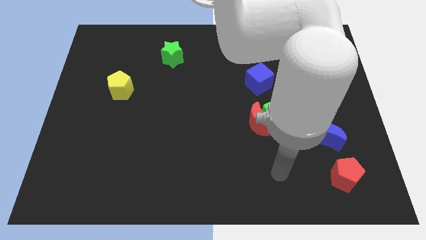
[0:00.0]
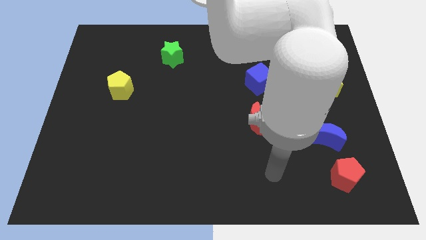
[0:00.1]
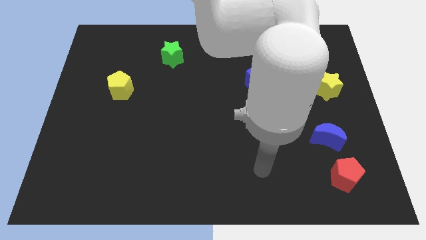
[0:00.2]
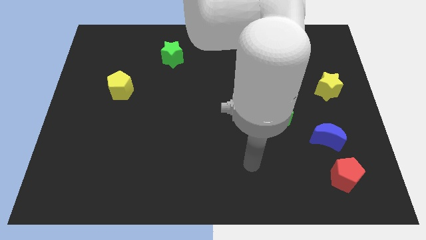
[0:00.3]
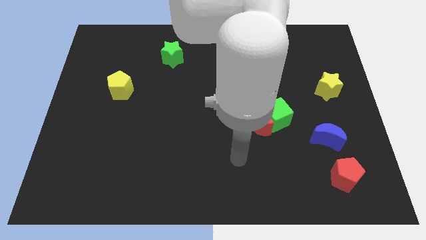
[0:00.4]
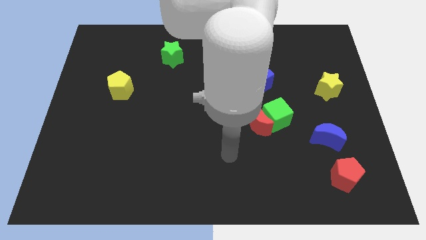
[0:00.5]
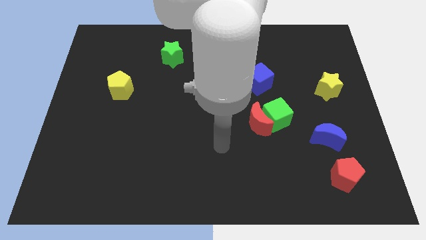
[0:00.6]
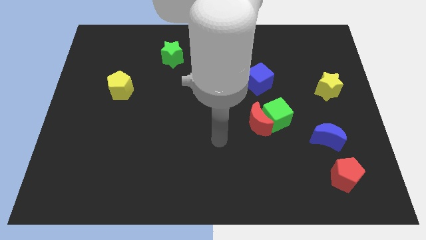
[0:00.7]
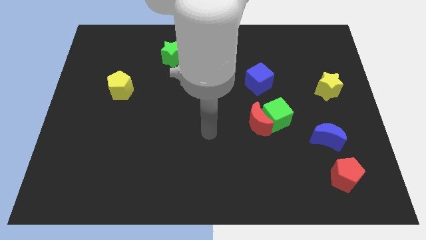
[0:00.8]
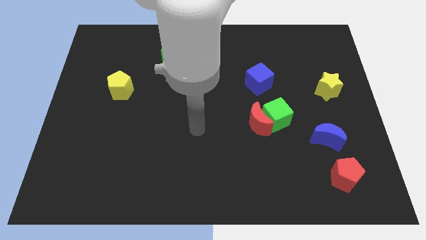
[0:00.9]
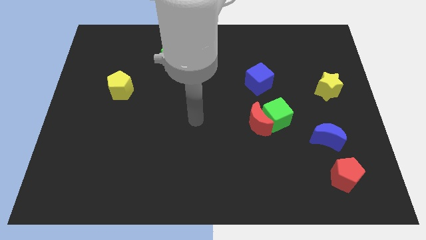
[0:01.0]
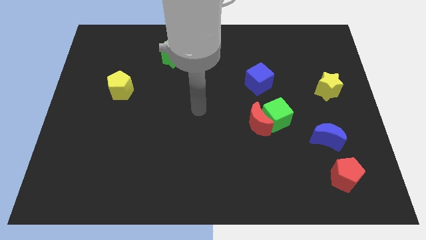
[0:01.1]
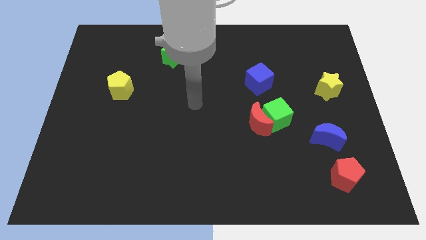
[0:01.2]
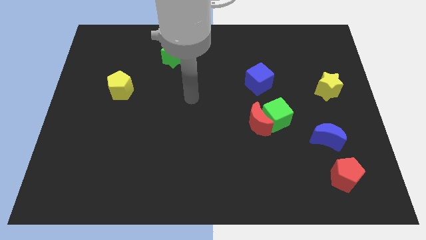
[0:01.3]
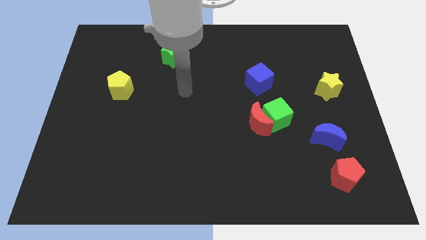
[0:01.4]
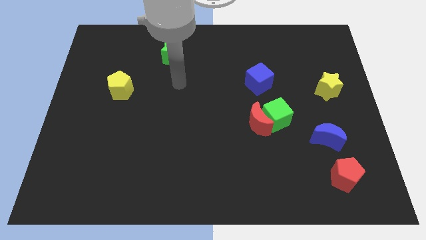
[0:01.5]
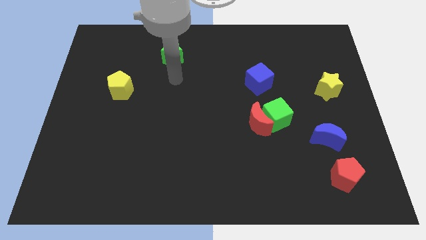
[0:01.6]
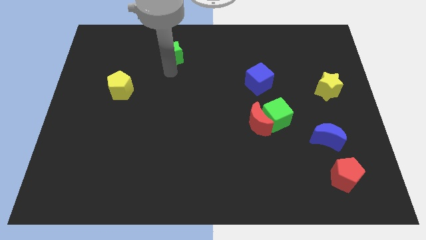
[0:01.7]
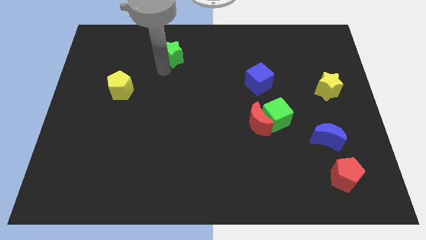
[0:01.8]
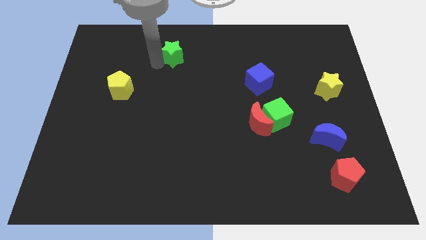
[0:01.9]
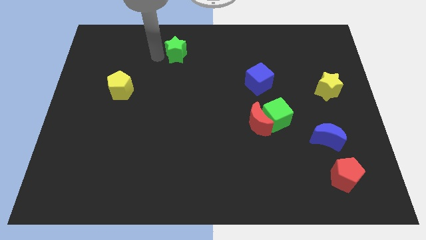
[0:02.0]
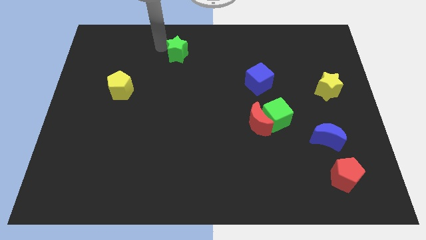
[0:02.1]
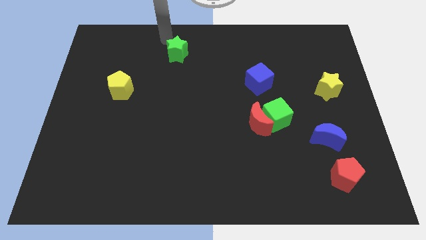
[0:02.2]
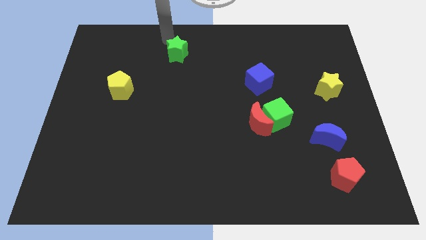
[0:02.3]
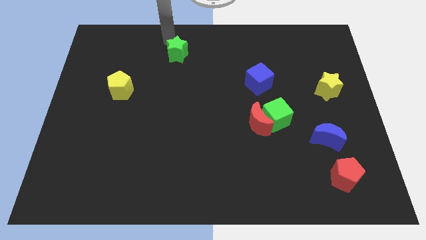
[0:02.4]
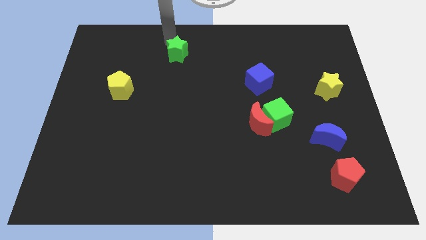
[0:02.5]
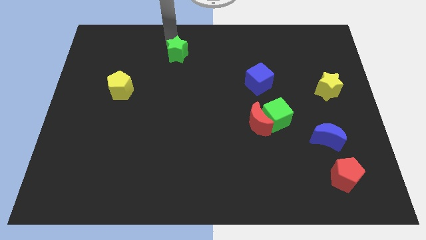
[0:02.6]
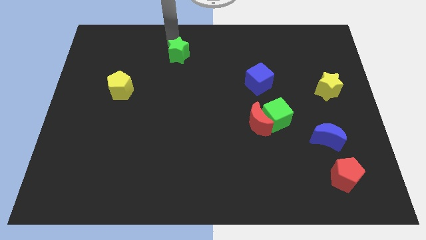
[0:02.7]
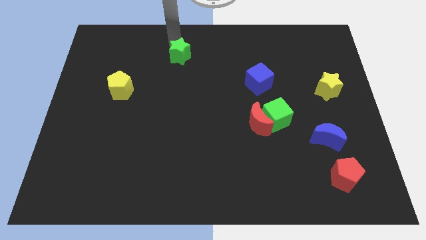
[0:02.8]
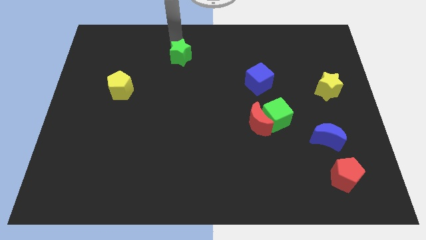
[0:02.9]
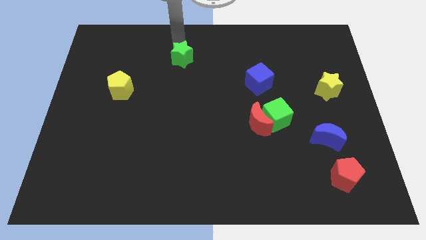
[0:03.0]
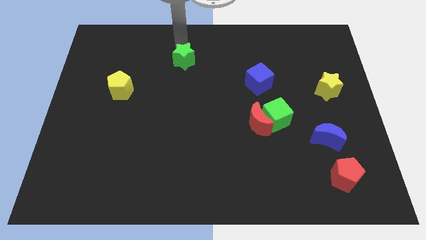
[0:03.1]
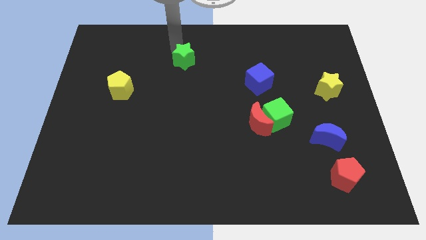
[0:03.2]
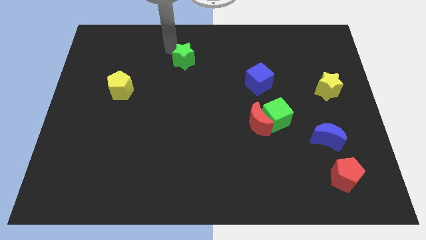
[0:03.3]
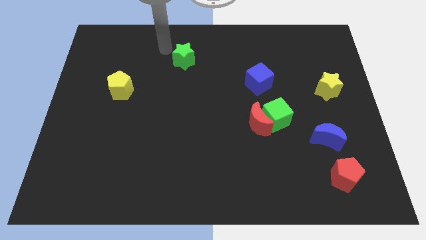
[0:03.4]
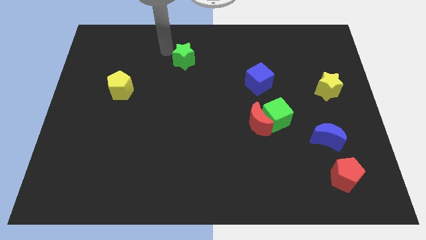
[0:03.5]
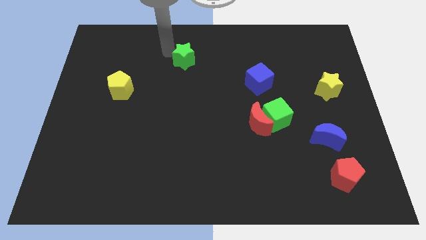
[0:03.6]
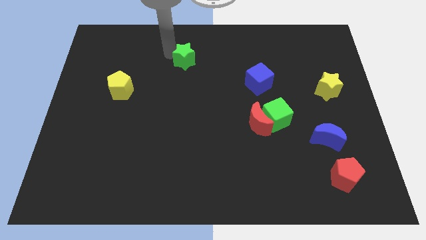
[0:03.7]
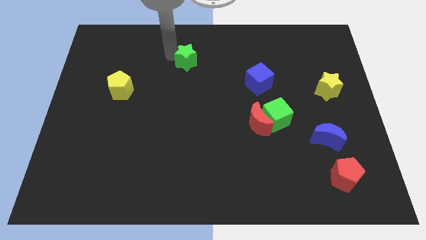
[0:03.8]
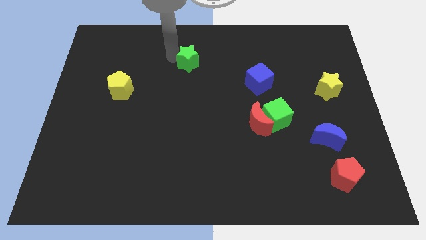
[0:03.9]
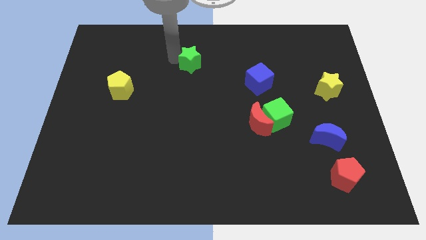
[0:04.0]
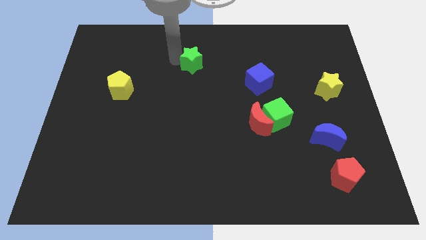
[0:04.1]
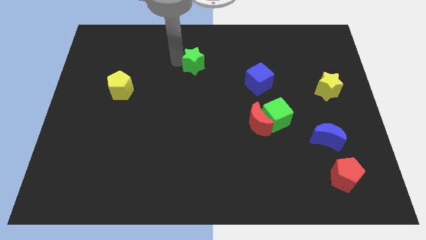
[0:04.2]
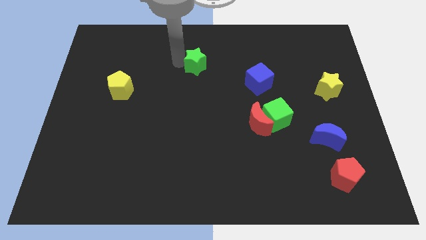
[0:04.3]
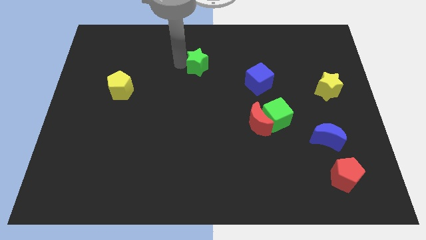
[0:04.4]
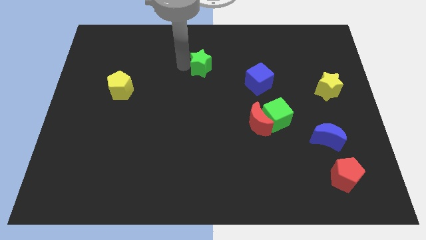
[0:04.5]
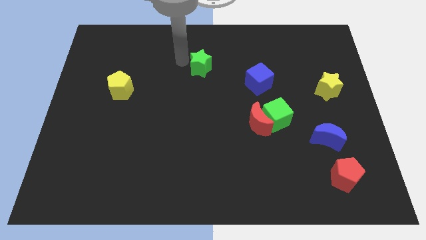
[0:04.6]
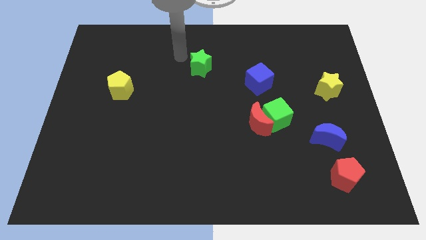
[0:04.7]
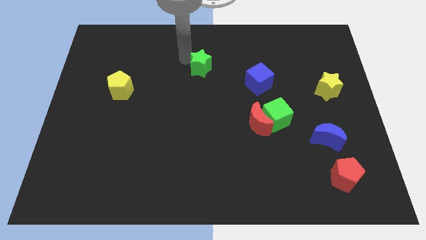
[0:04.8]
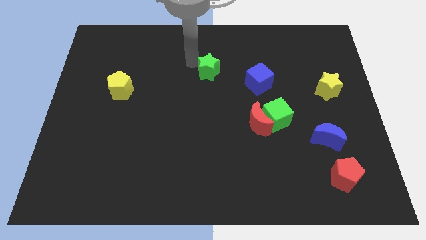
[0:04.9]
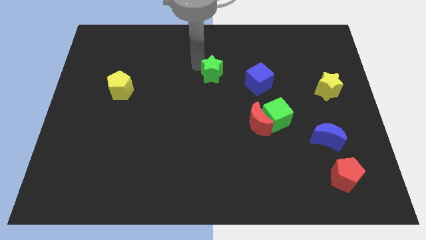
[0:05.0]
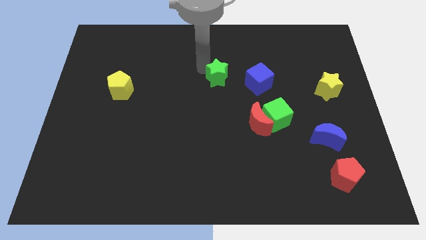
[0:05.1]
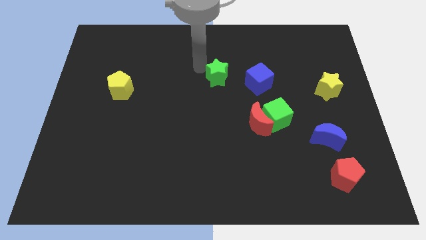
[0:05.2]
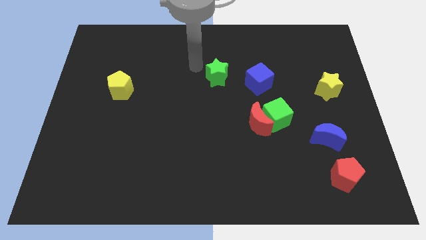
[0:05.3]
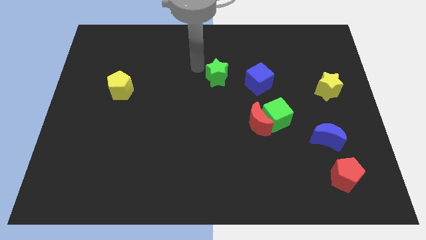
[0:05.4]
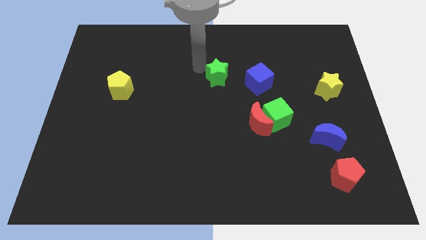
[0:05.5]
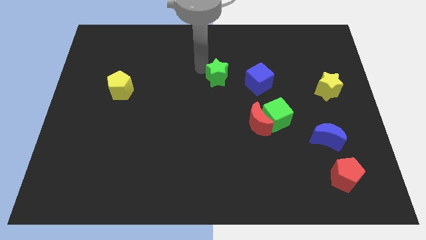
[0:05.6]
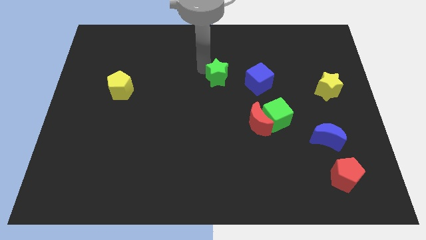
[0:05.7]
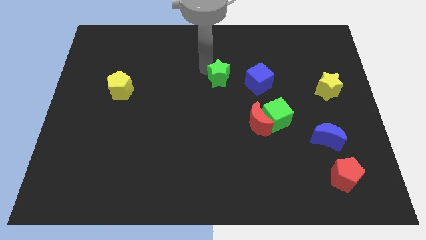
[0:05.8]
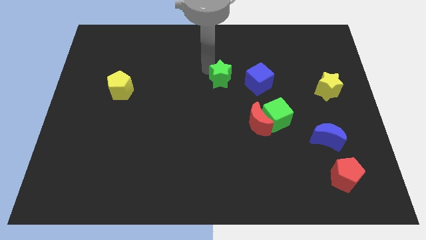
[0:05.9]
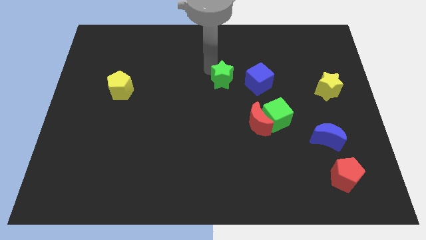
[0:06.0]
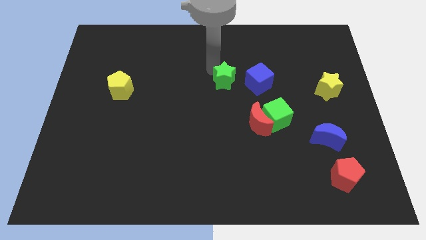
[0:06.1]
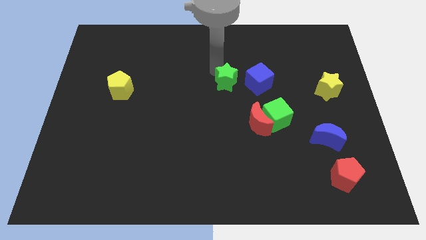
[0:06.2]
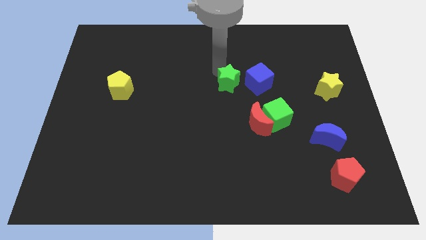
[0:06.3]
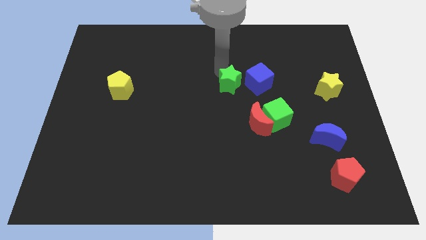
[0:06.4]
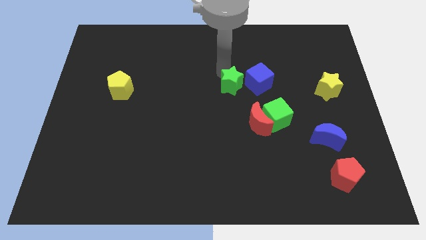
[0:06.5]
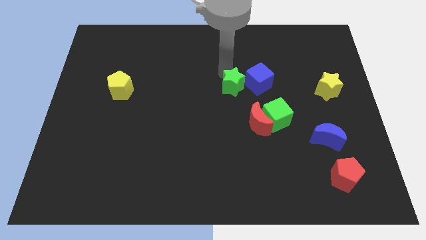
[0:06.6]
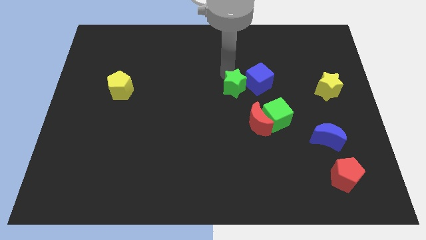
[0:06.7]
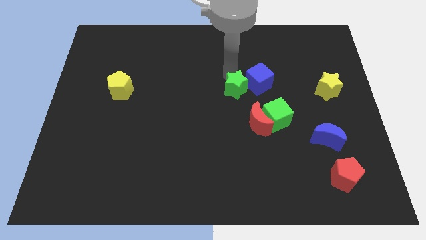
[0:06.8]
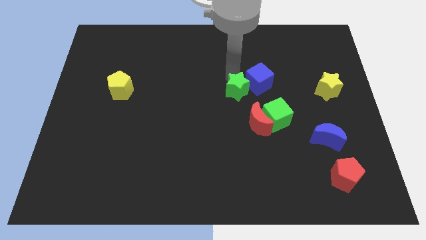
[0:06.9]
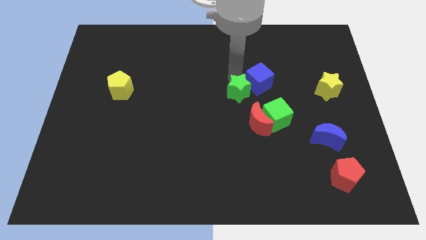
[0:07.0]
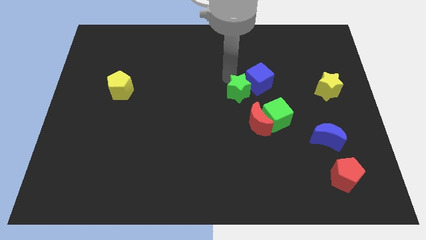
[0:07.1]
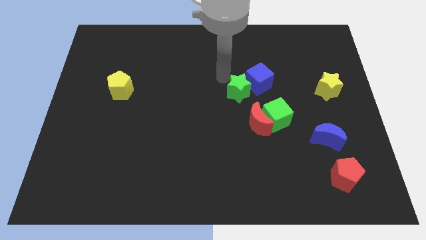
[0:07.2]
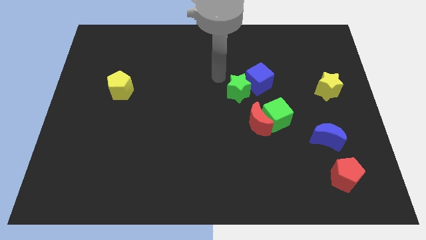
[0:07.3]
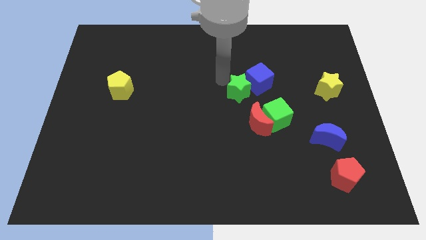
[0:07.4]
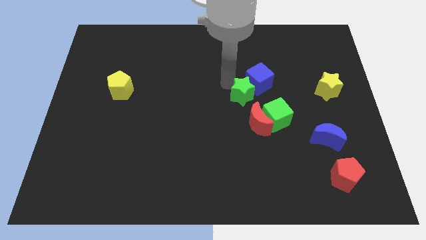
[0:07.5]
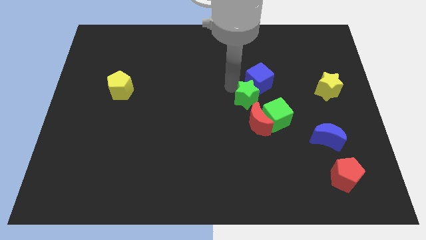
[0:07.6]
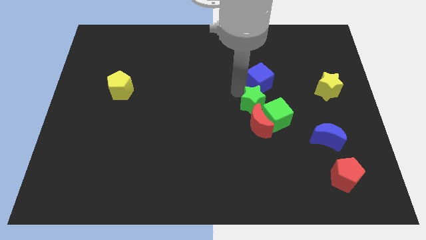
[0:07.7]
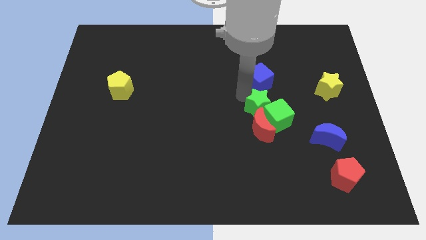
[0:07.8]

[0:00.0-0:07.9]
slide the green star next to the green cube
